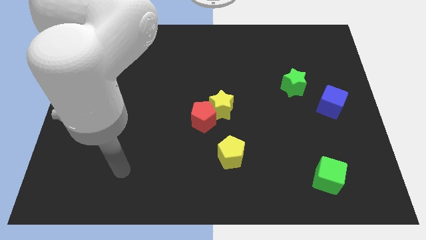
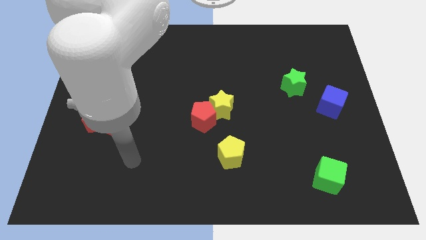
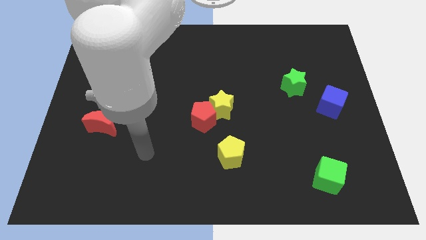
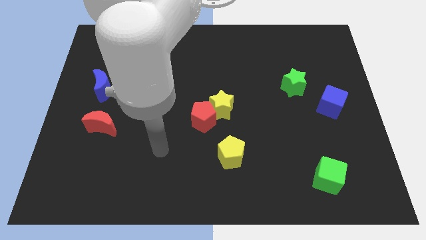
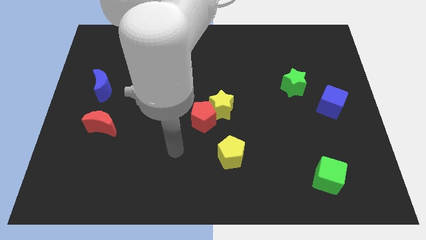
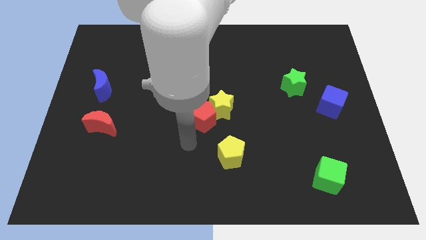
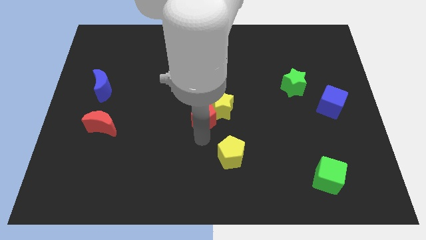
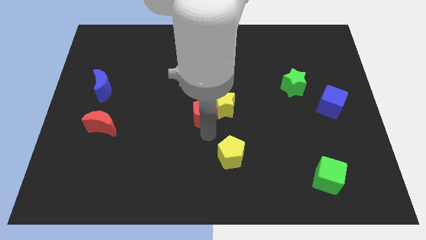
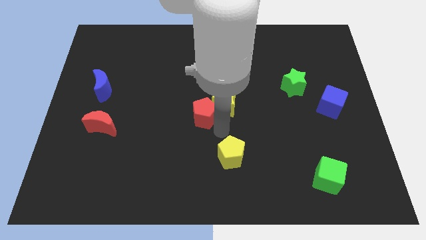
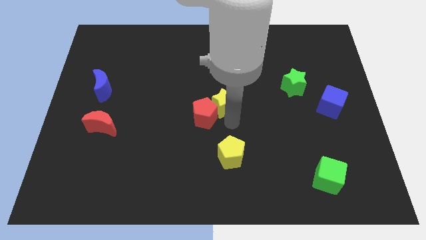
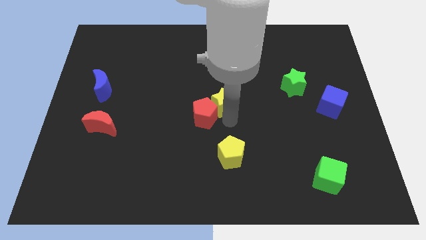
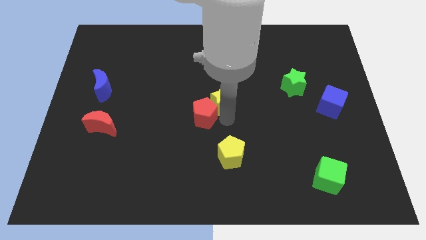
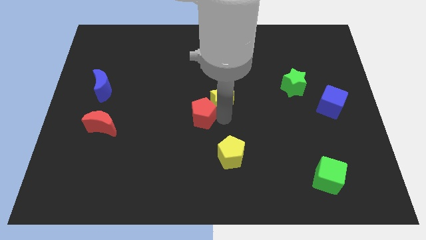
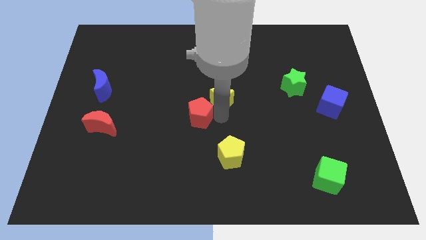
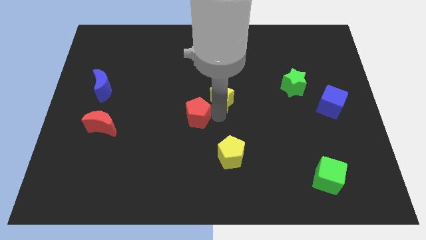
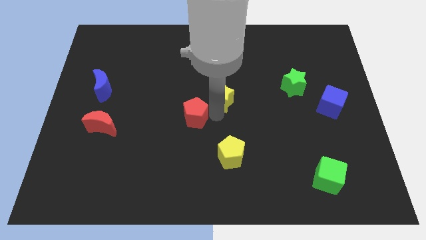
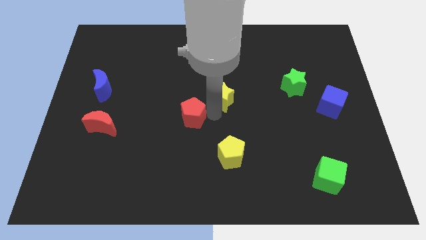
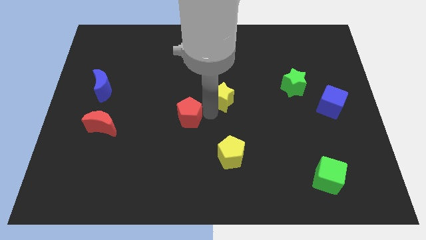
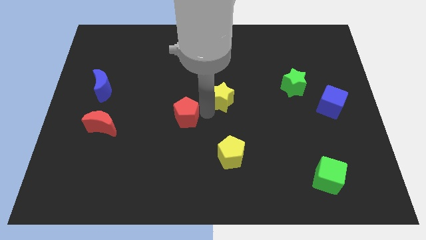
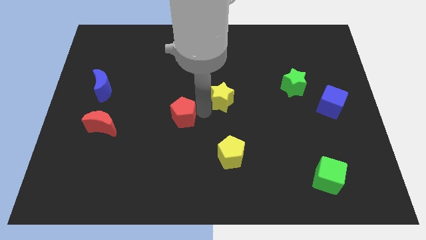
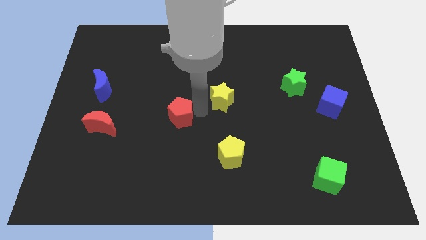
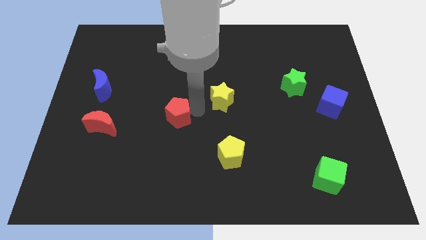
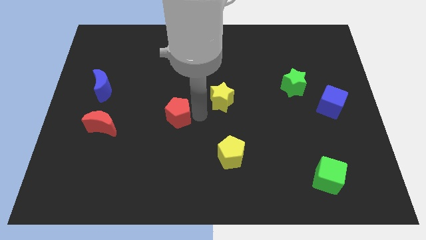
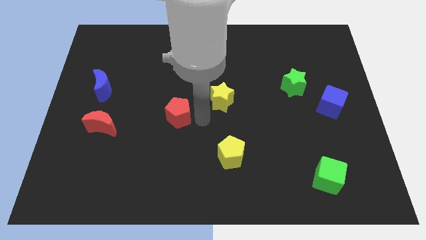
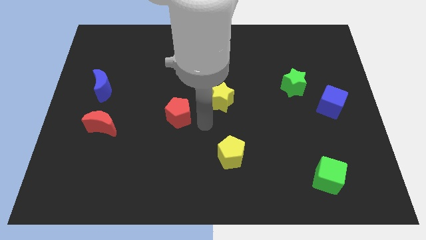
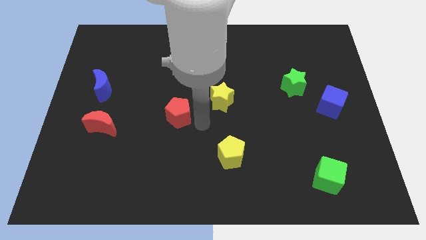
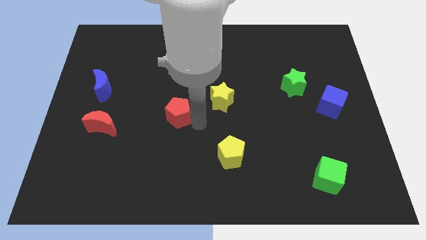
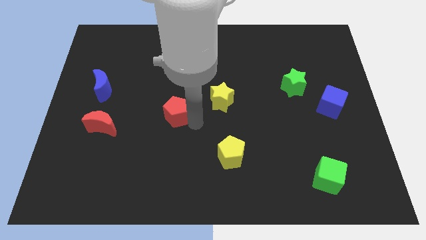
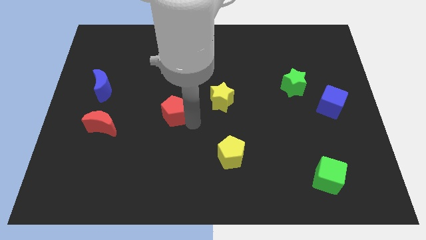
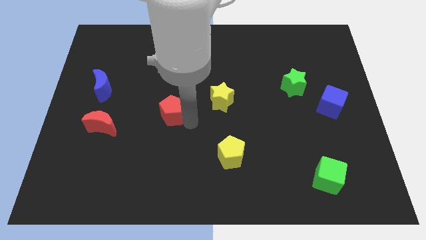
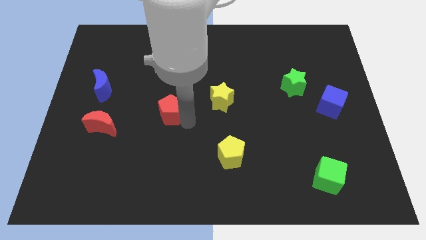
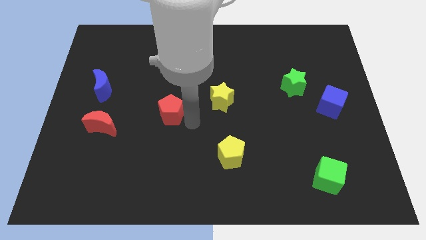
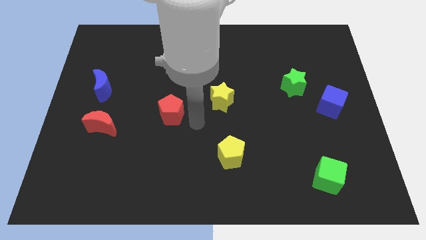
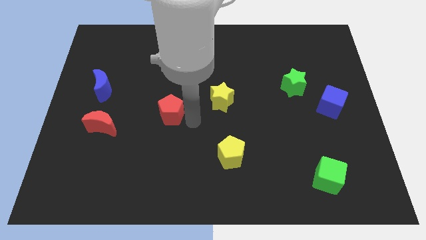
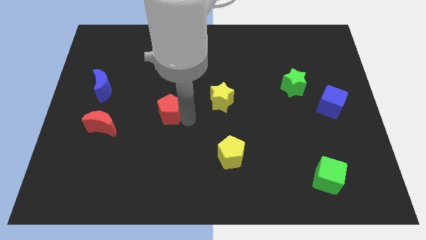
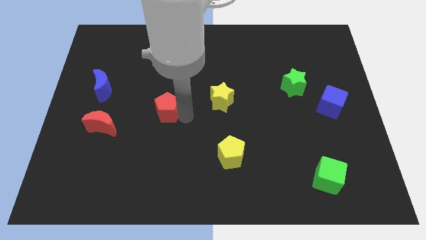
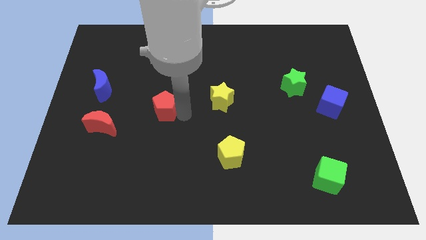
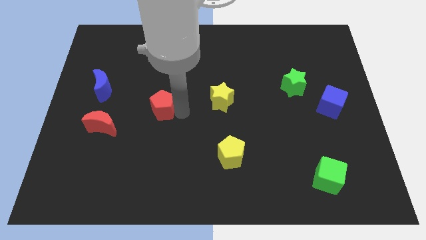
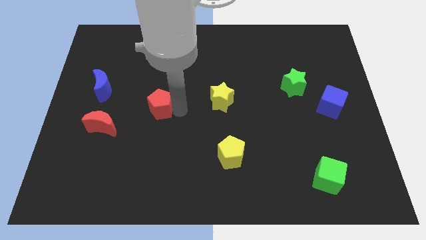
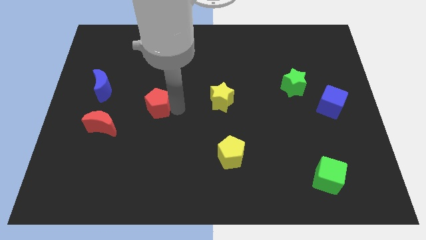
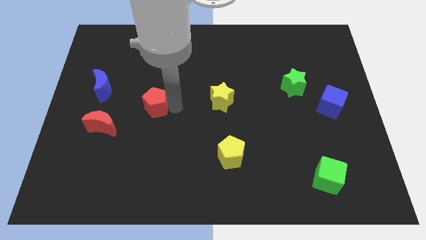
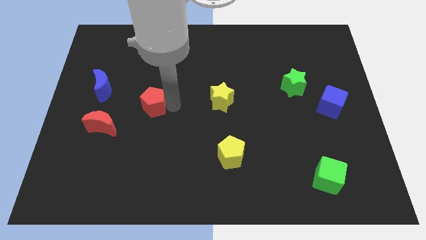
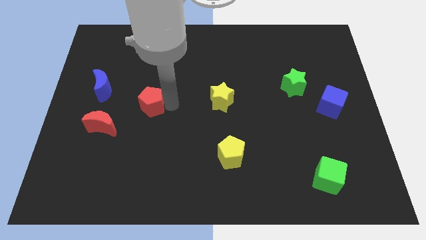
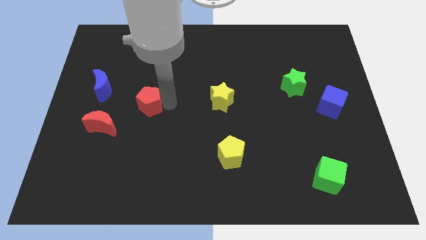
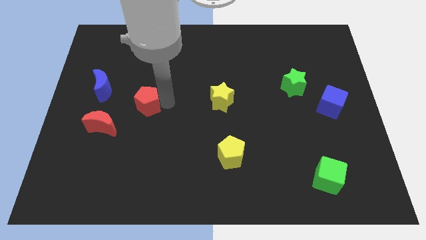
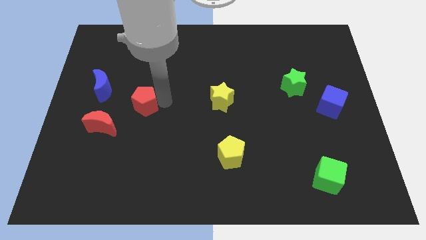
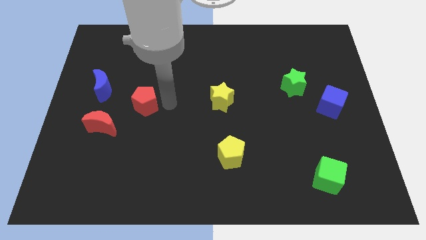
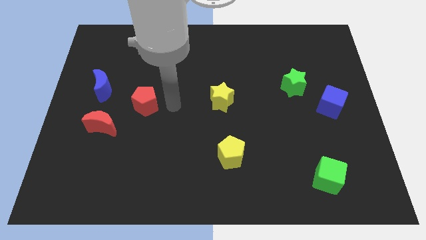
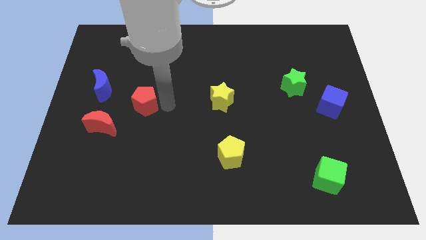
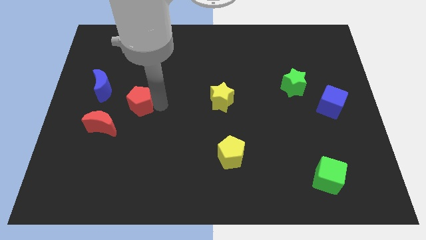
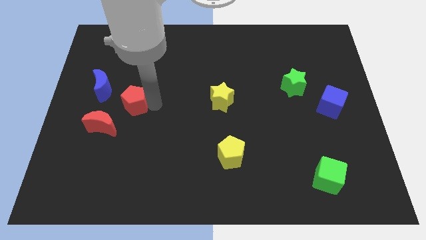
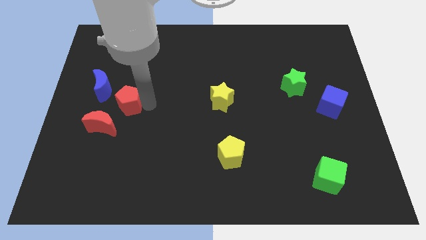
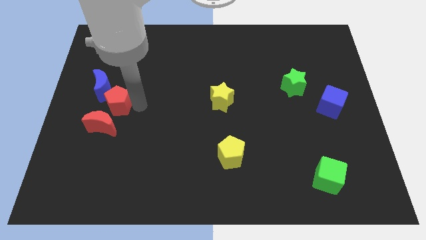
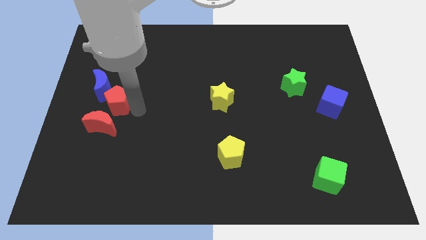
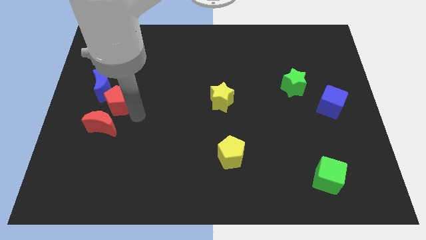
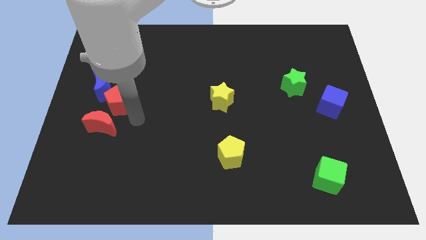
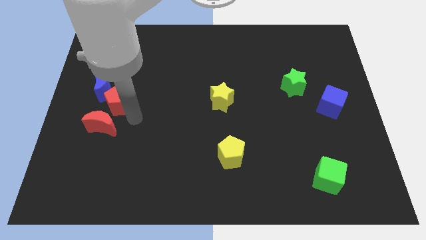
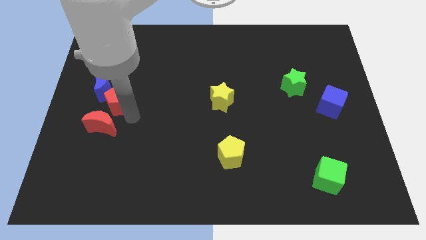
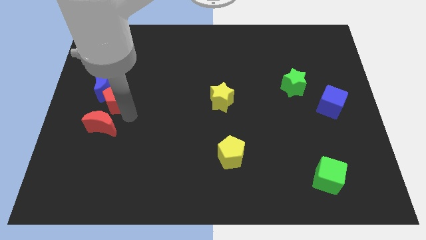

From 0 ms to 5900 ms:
slide the red pentagon close to the blue moon

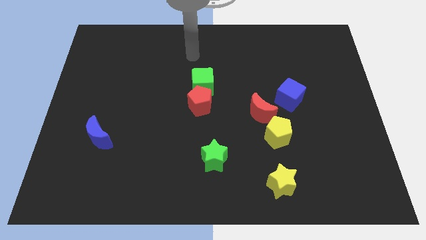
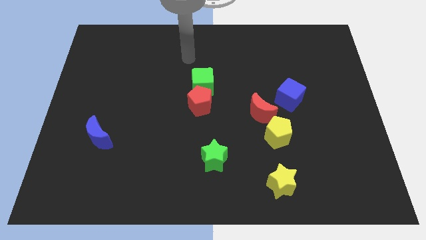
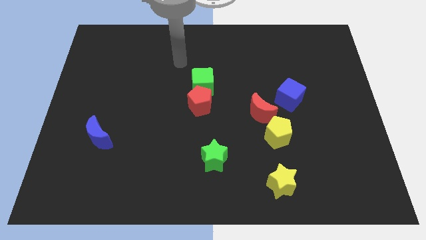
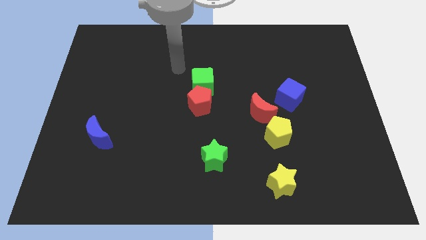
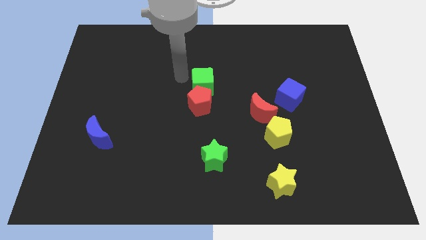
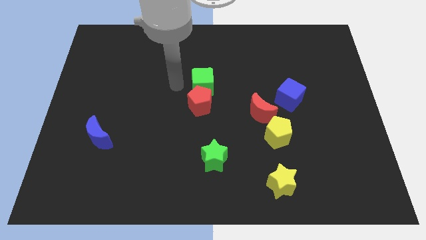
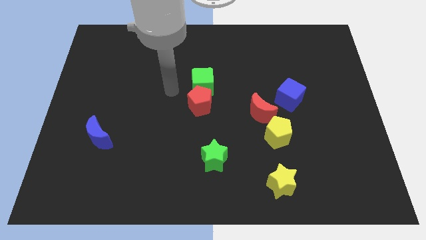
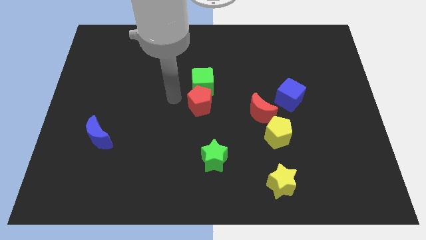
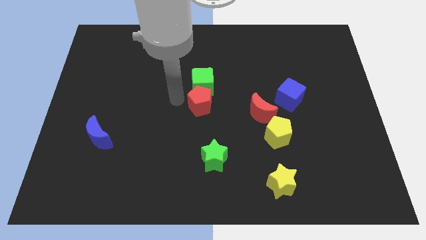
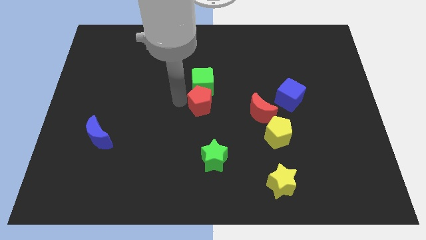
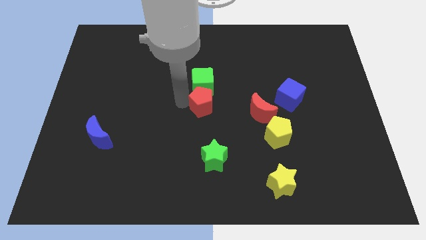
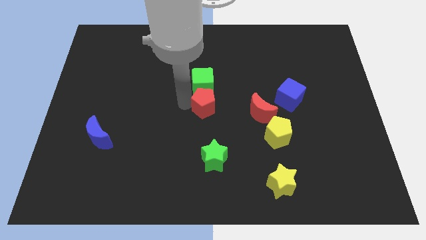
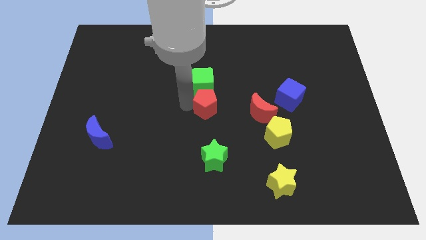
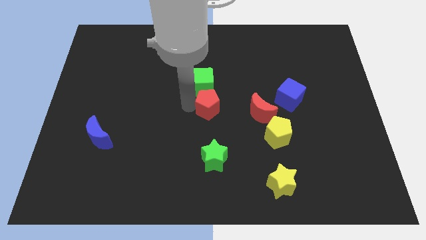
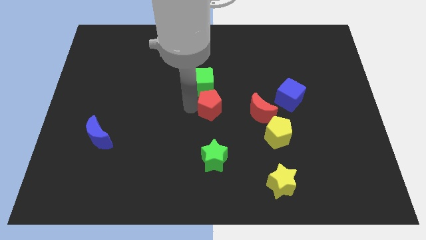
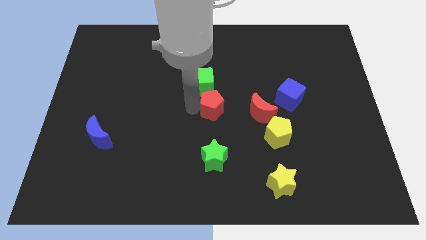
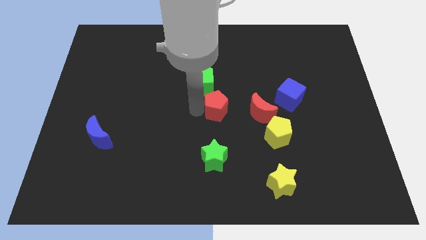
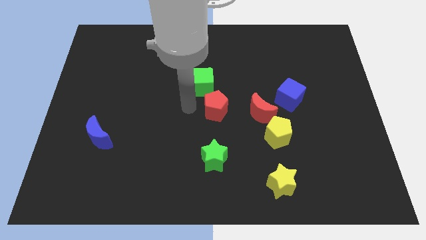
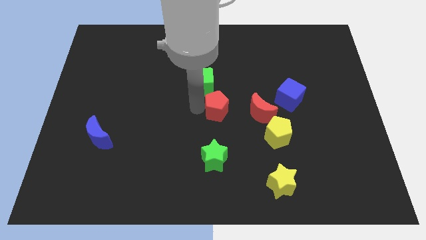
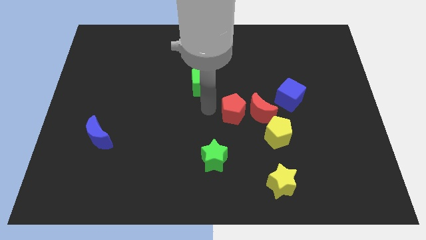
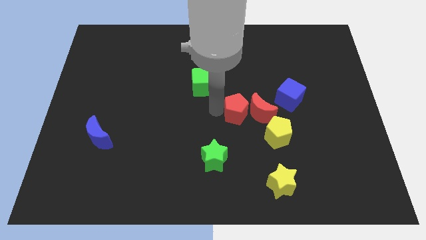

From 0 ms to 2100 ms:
move the red pentagon close to the red moon
